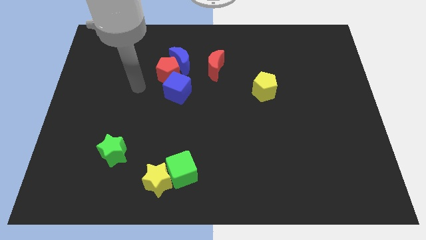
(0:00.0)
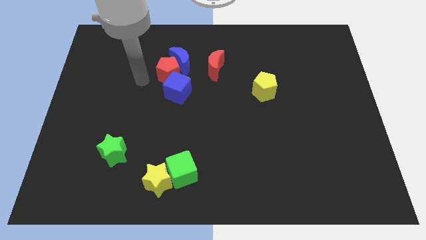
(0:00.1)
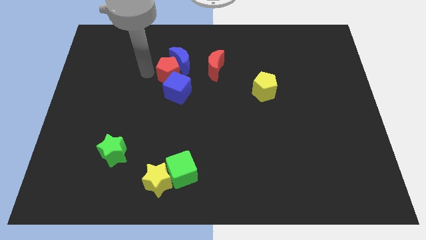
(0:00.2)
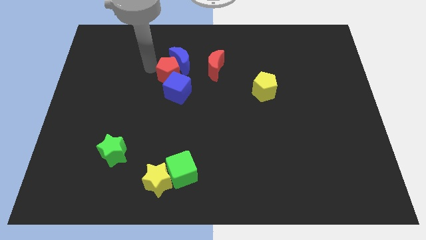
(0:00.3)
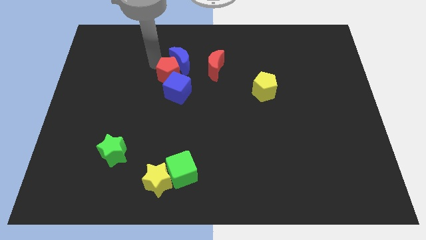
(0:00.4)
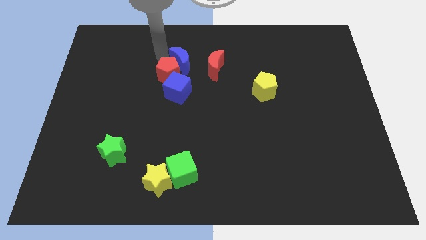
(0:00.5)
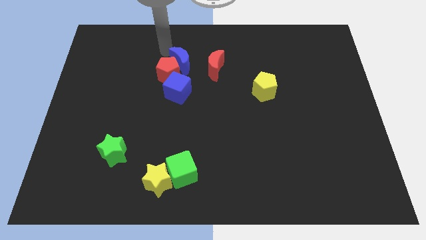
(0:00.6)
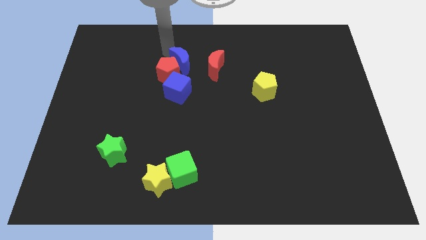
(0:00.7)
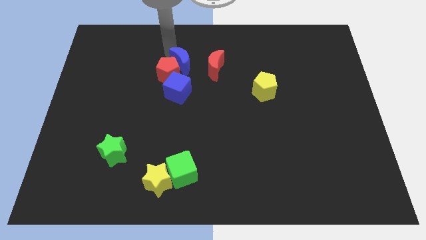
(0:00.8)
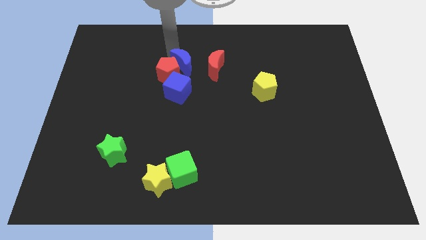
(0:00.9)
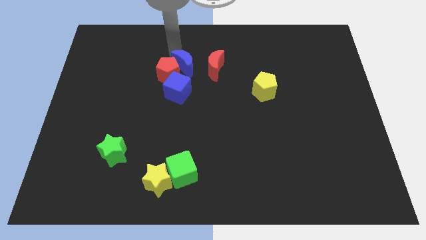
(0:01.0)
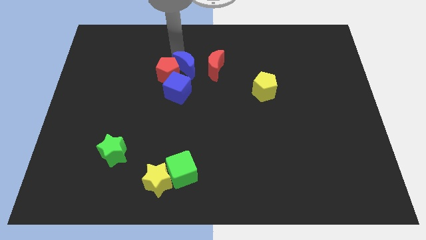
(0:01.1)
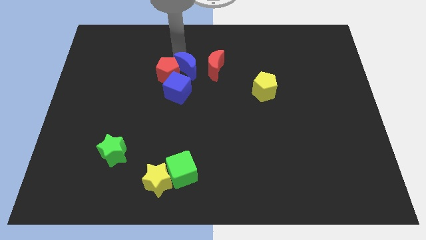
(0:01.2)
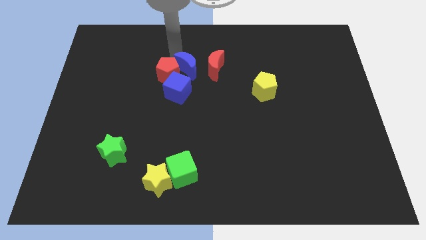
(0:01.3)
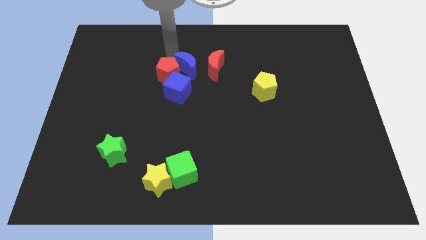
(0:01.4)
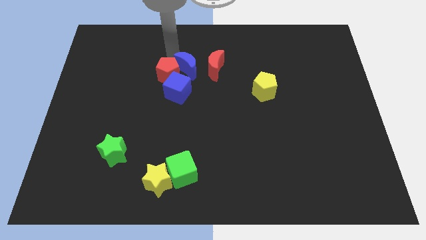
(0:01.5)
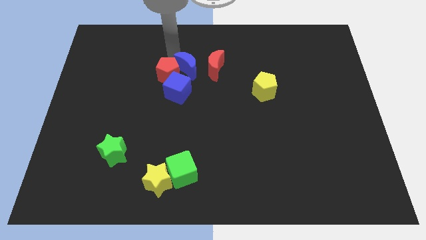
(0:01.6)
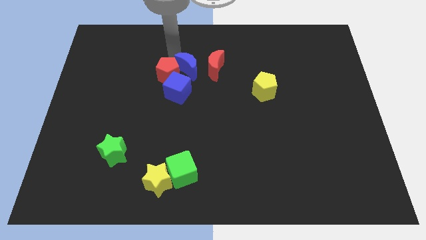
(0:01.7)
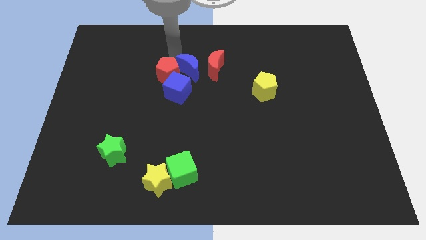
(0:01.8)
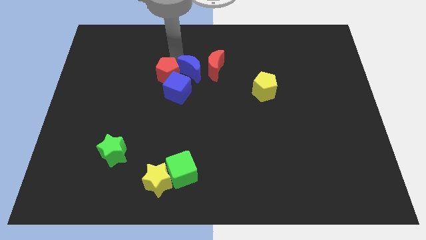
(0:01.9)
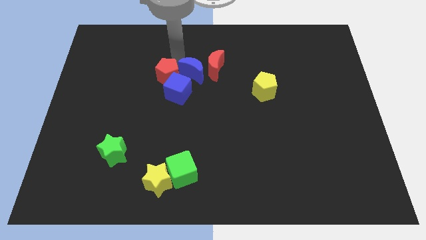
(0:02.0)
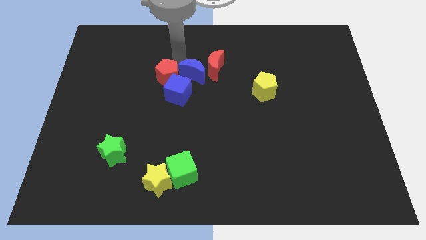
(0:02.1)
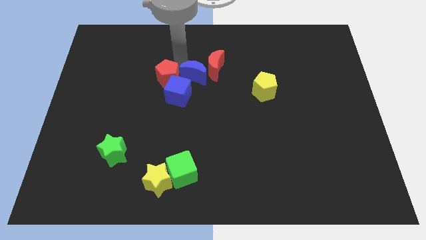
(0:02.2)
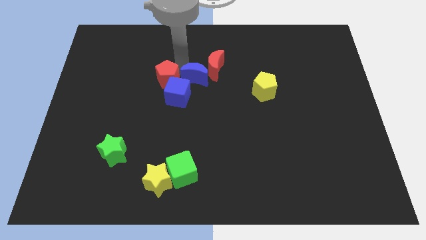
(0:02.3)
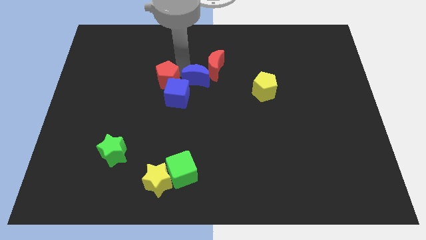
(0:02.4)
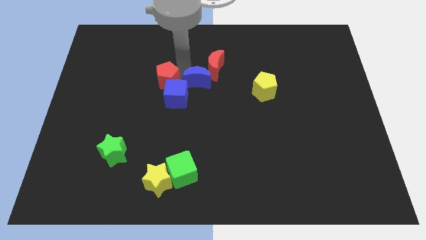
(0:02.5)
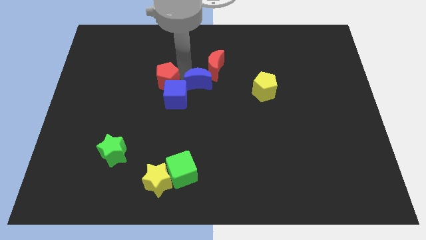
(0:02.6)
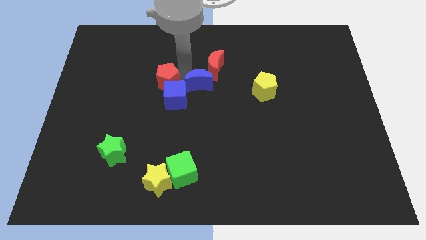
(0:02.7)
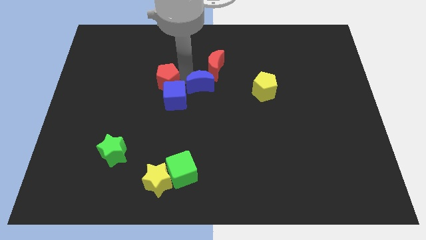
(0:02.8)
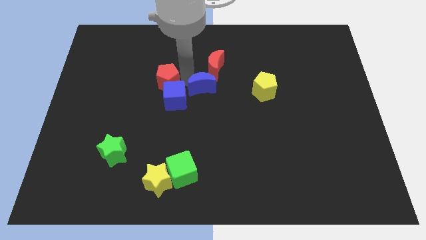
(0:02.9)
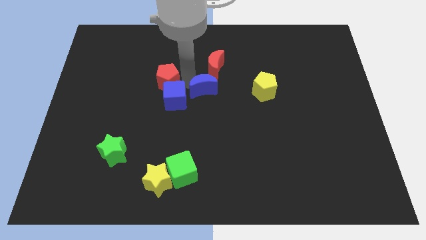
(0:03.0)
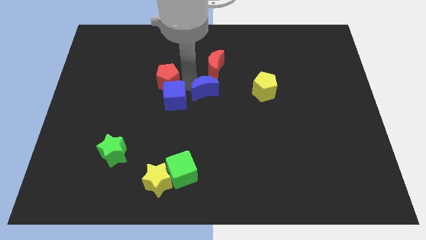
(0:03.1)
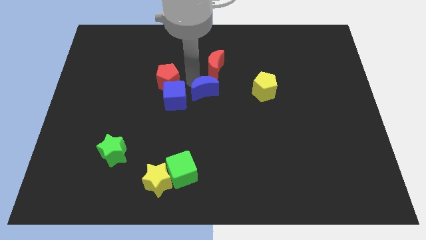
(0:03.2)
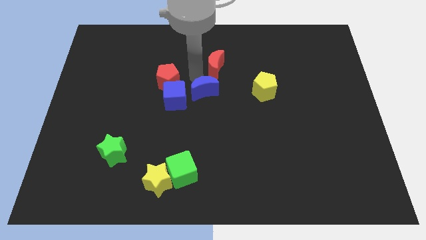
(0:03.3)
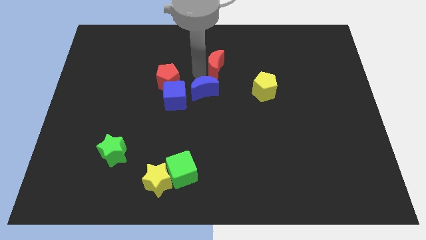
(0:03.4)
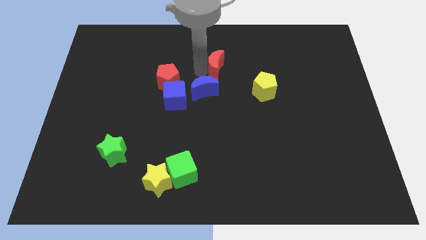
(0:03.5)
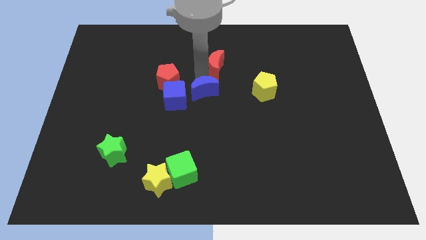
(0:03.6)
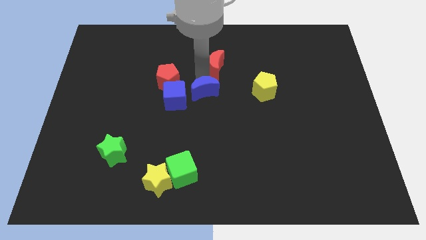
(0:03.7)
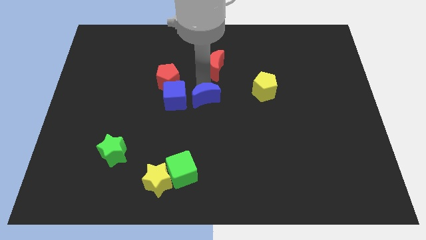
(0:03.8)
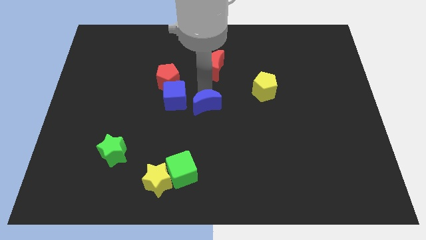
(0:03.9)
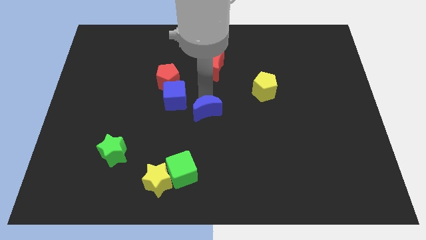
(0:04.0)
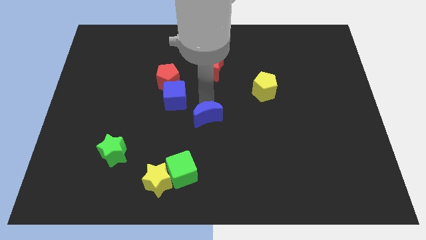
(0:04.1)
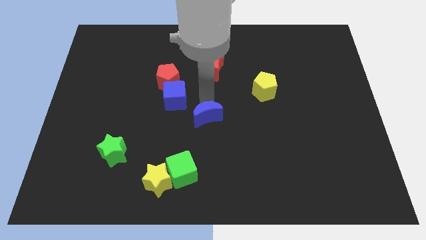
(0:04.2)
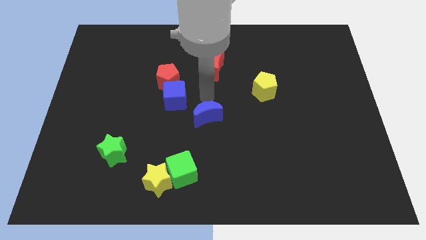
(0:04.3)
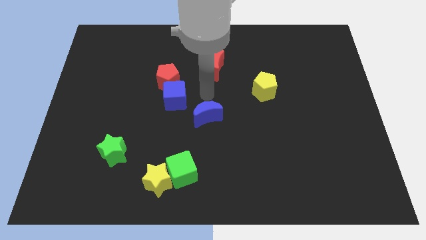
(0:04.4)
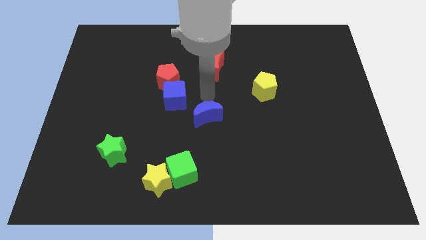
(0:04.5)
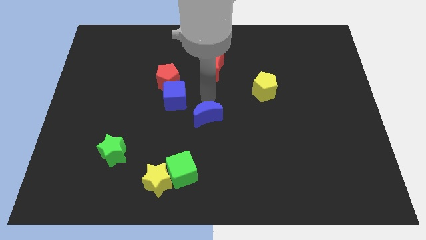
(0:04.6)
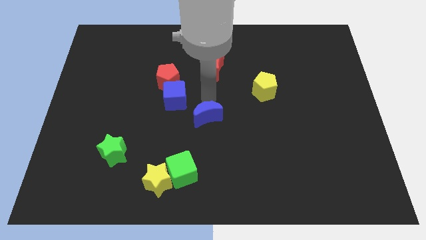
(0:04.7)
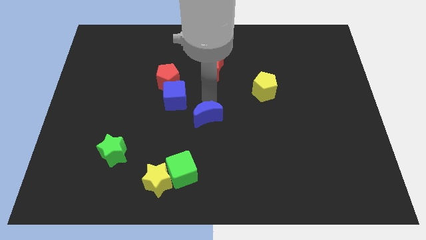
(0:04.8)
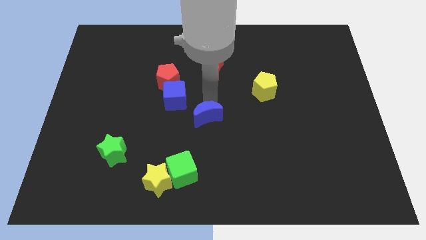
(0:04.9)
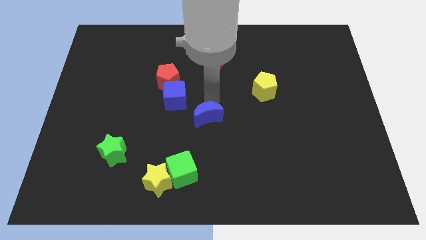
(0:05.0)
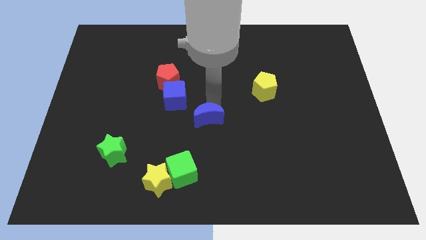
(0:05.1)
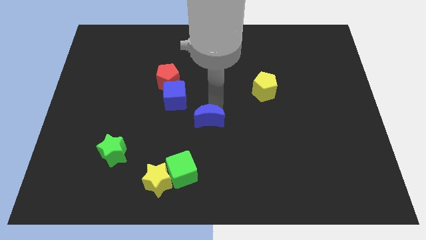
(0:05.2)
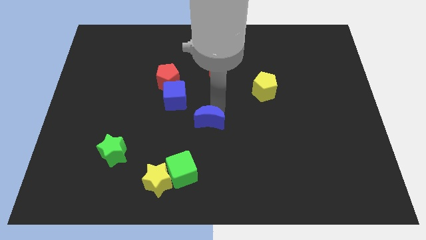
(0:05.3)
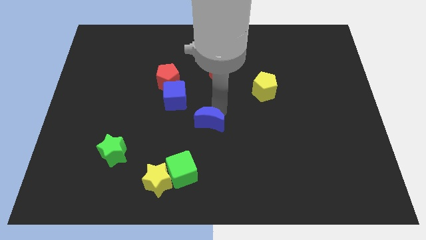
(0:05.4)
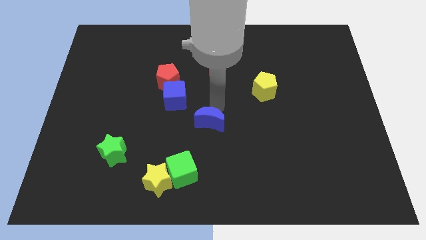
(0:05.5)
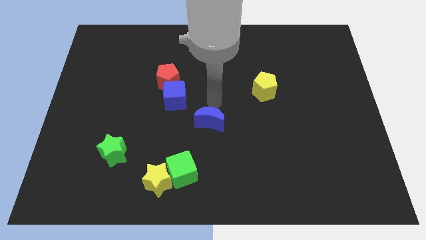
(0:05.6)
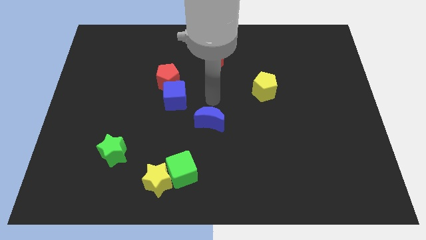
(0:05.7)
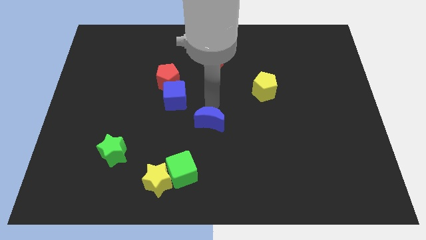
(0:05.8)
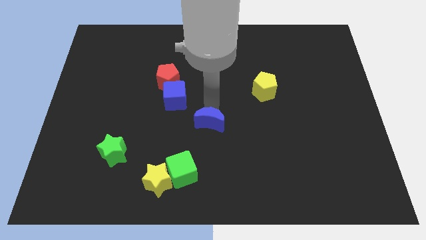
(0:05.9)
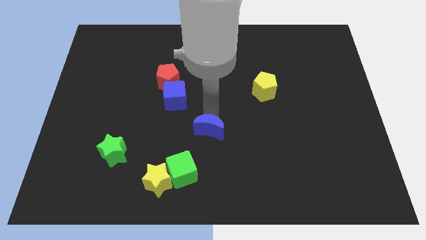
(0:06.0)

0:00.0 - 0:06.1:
slide the blue moon diagonally up and to the right of the green cube

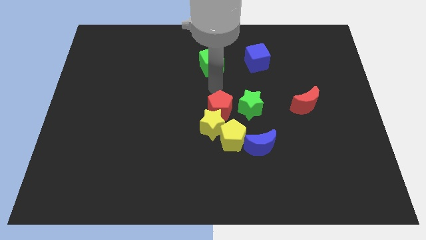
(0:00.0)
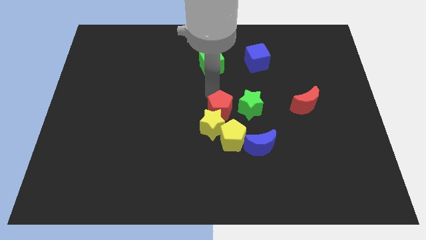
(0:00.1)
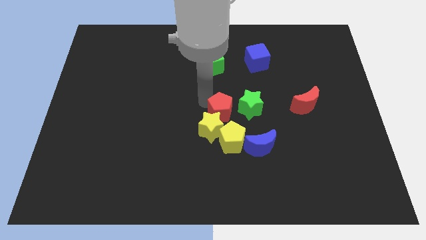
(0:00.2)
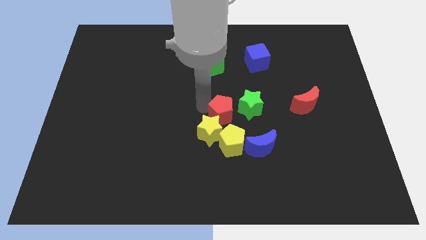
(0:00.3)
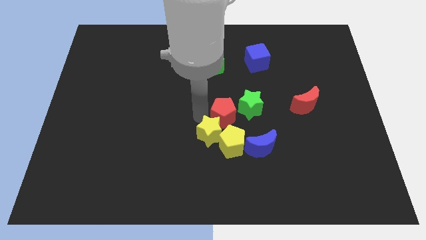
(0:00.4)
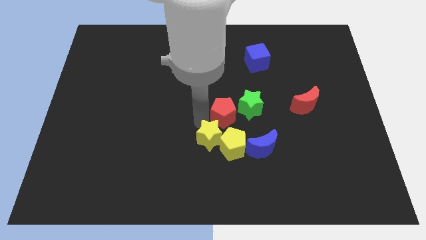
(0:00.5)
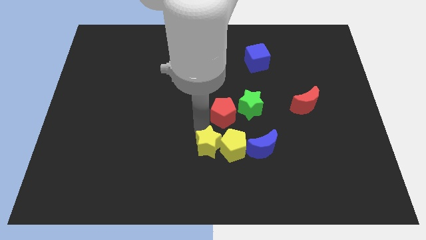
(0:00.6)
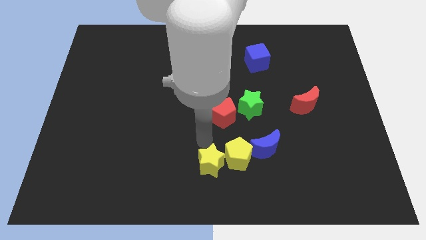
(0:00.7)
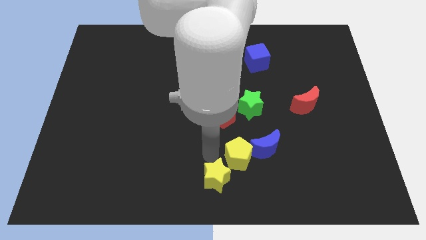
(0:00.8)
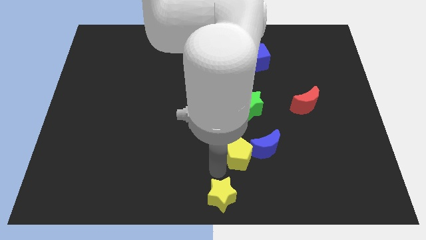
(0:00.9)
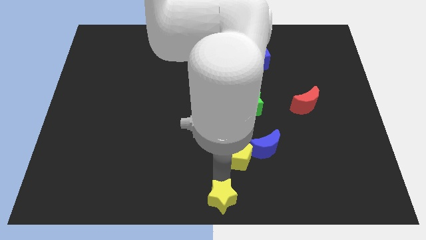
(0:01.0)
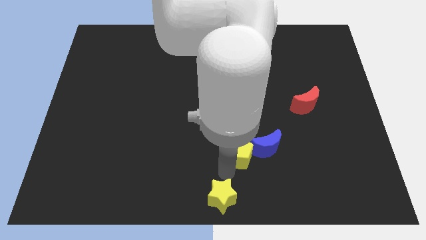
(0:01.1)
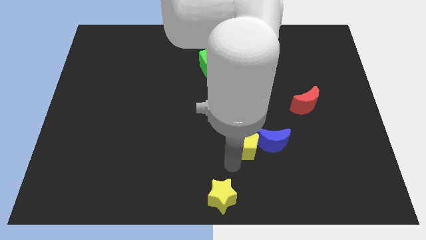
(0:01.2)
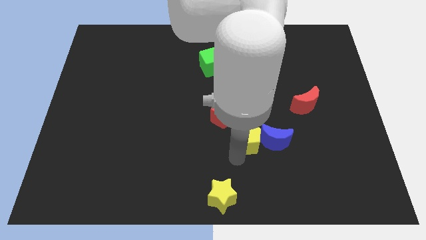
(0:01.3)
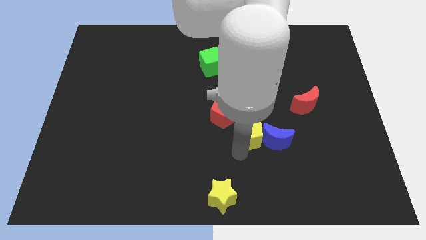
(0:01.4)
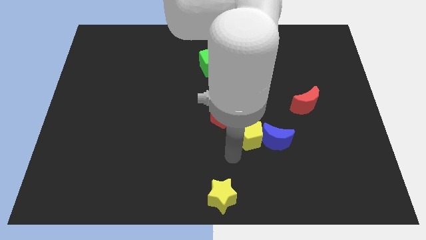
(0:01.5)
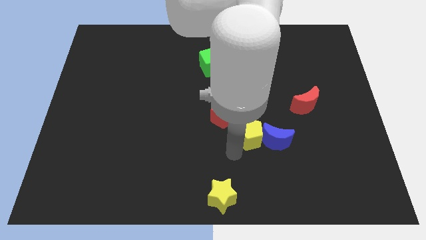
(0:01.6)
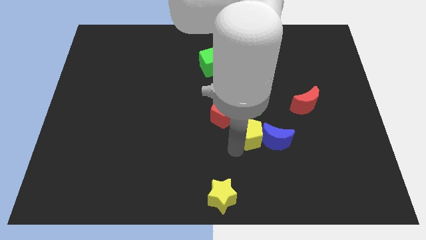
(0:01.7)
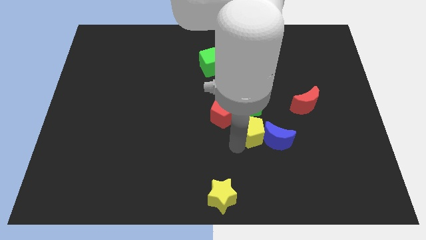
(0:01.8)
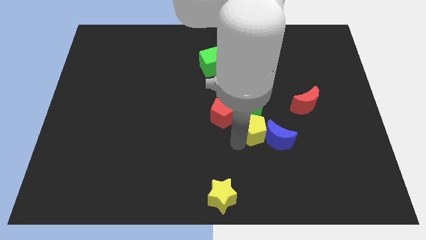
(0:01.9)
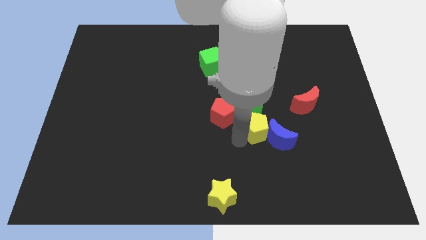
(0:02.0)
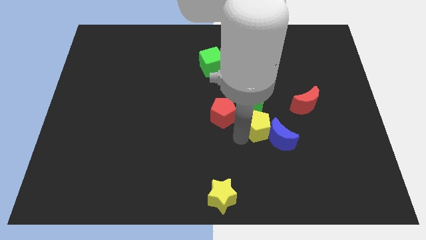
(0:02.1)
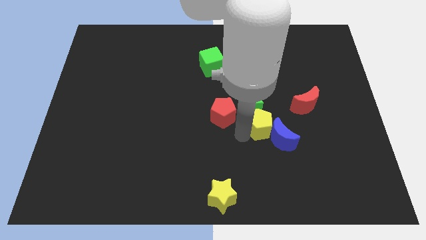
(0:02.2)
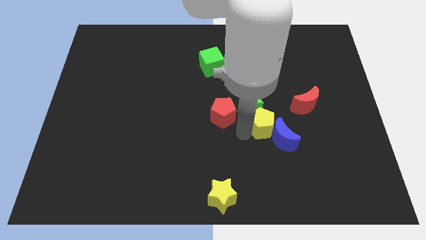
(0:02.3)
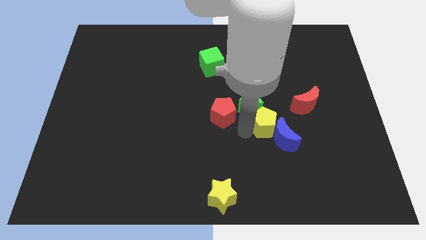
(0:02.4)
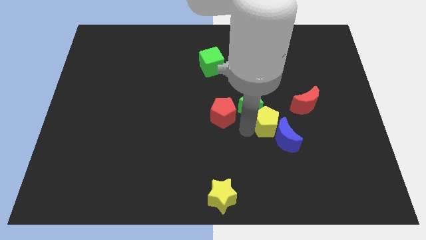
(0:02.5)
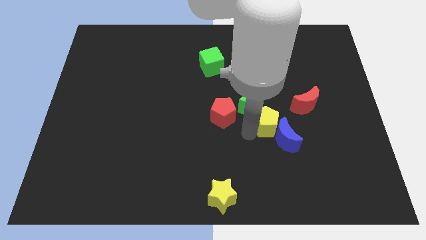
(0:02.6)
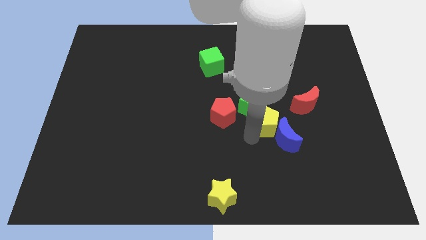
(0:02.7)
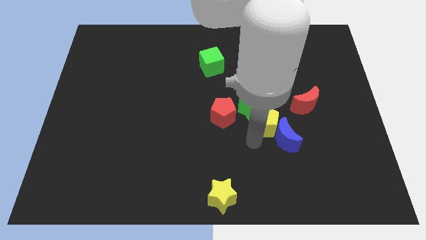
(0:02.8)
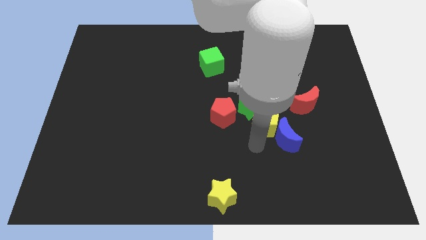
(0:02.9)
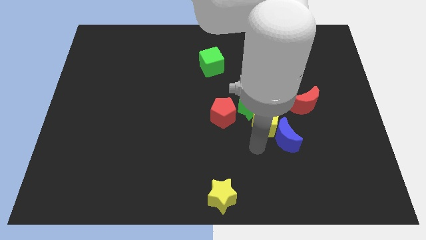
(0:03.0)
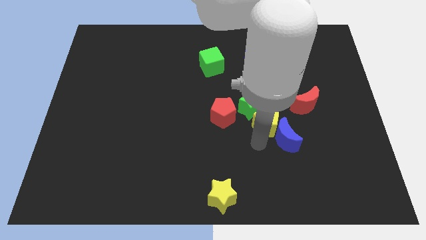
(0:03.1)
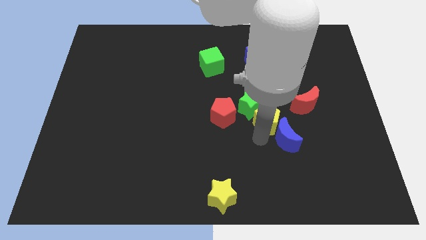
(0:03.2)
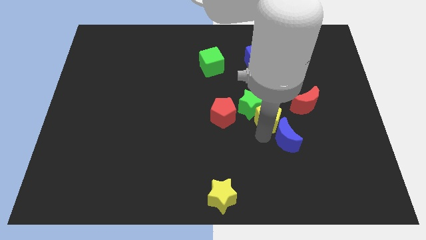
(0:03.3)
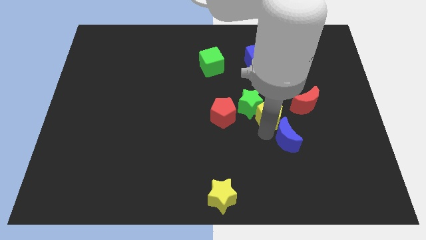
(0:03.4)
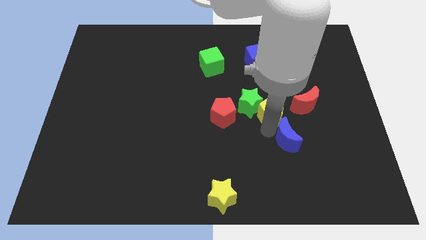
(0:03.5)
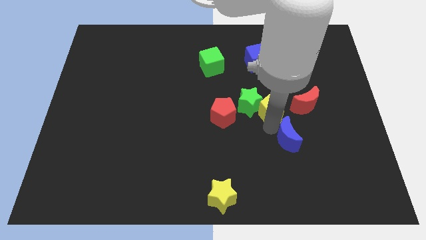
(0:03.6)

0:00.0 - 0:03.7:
put the yellow pentagon to the top right of the green star
